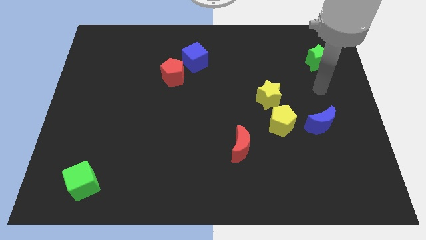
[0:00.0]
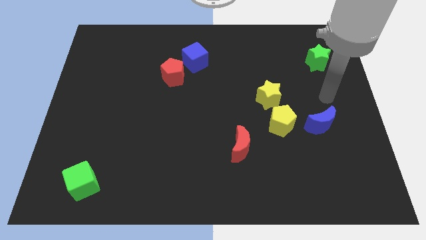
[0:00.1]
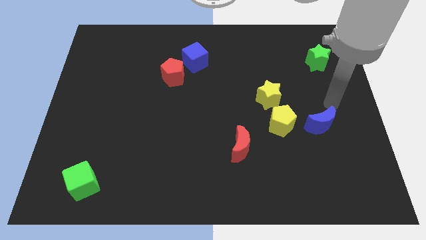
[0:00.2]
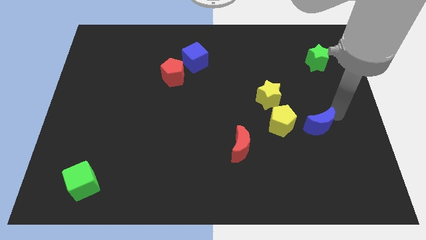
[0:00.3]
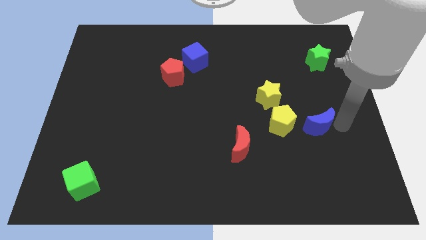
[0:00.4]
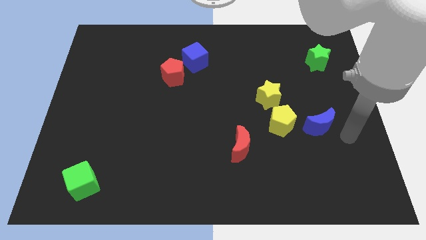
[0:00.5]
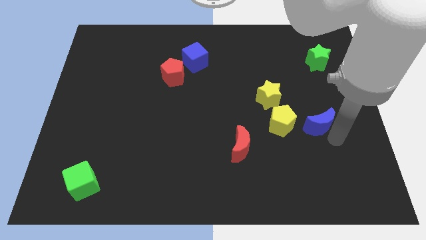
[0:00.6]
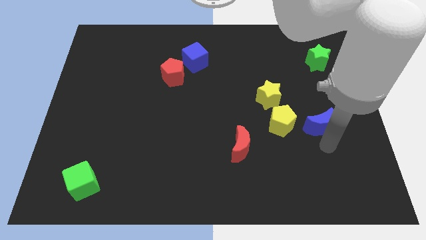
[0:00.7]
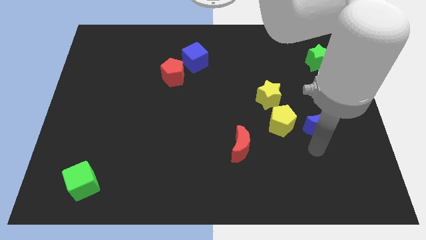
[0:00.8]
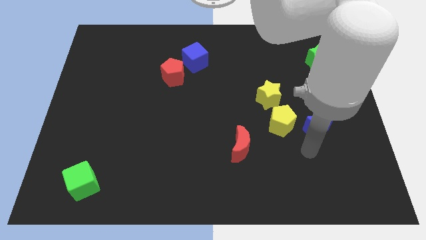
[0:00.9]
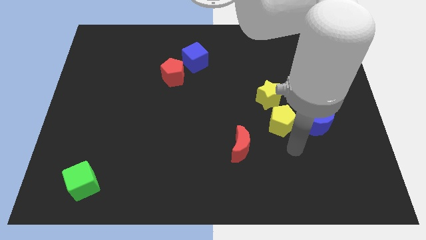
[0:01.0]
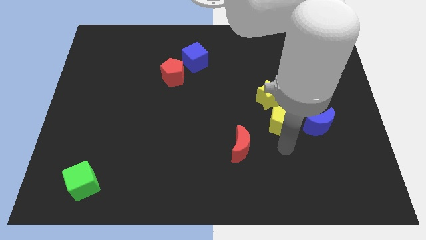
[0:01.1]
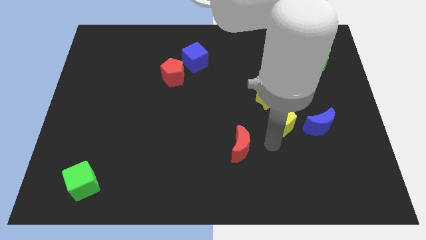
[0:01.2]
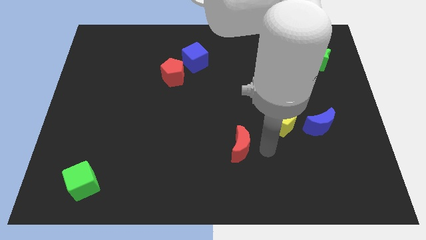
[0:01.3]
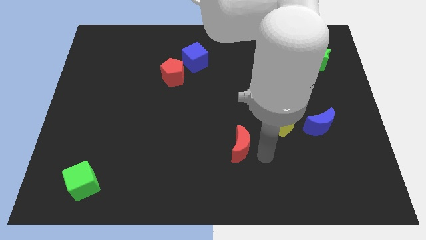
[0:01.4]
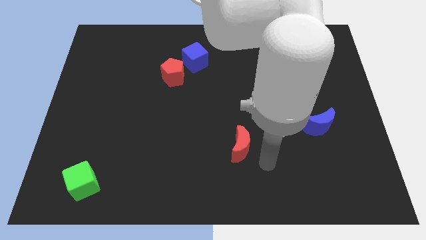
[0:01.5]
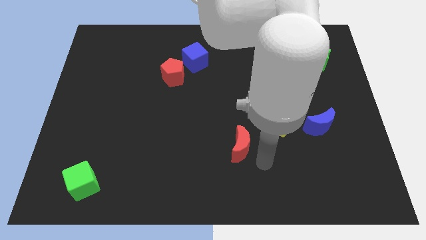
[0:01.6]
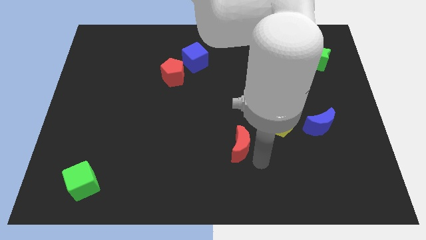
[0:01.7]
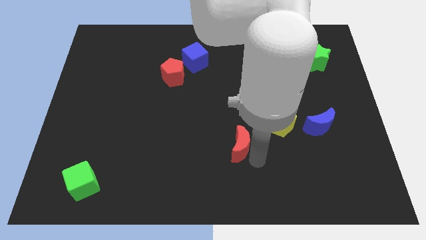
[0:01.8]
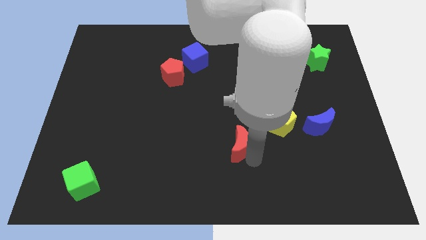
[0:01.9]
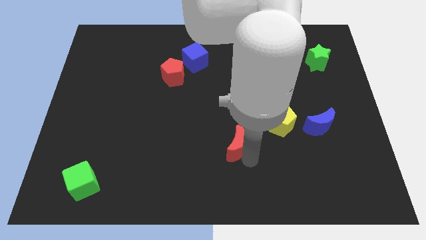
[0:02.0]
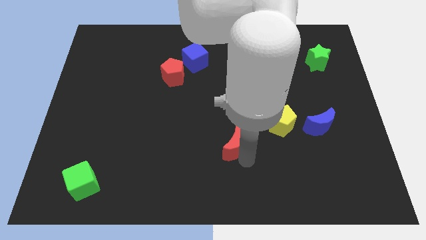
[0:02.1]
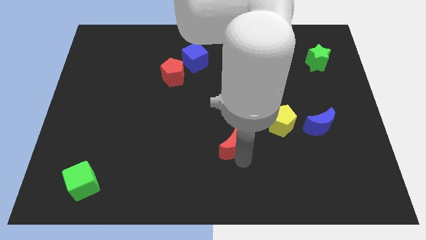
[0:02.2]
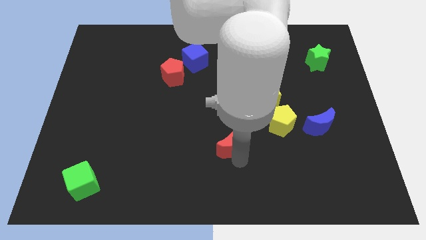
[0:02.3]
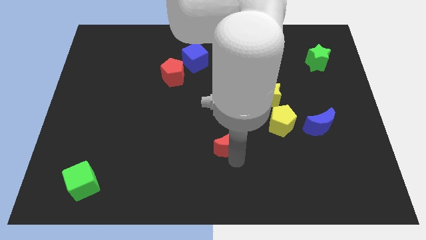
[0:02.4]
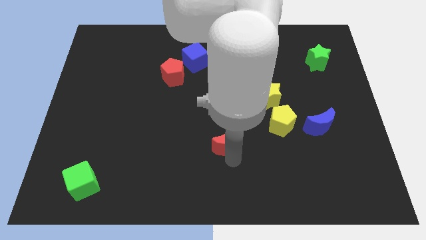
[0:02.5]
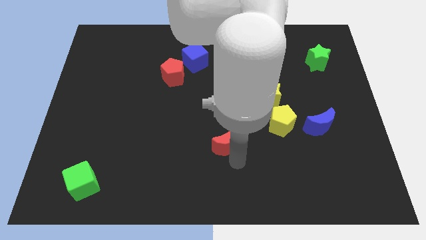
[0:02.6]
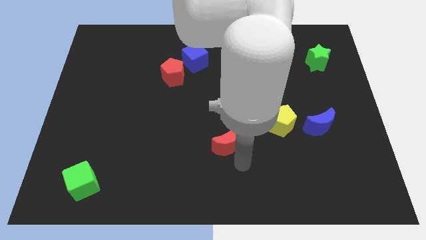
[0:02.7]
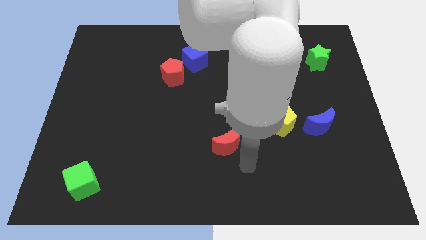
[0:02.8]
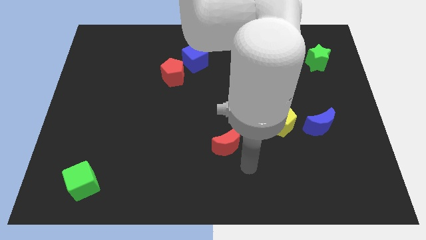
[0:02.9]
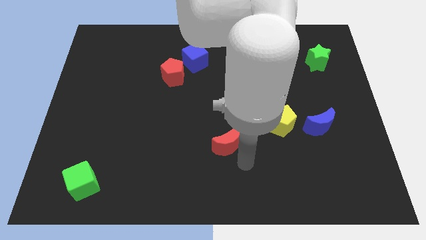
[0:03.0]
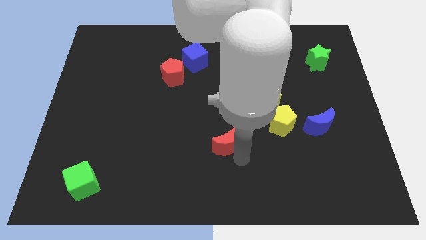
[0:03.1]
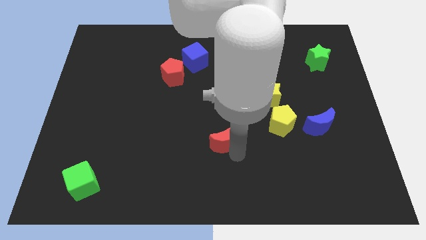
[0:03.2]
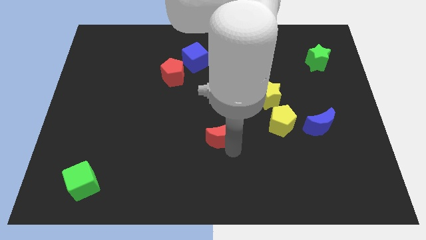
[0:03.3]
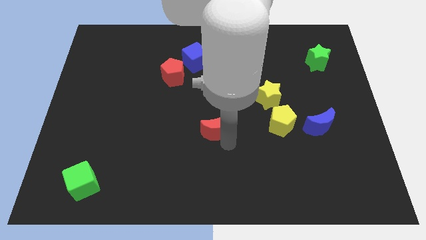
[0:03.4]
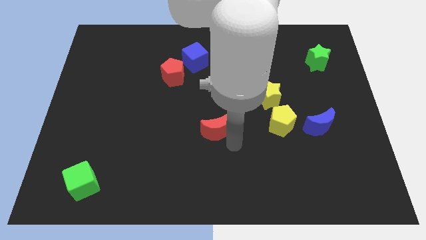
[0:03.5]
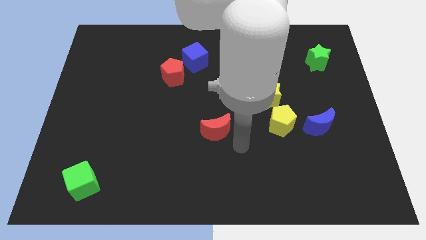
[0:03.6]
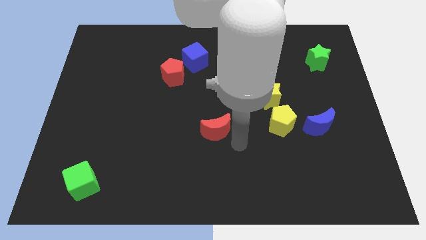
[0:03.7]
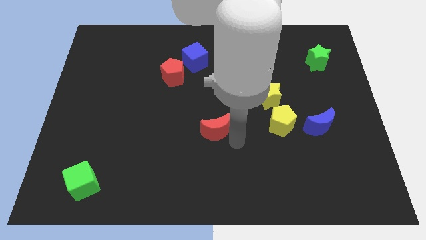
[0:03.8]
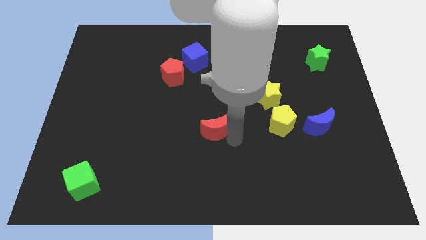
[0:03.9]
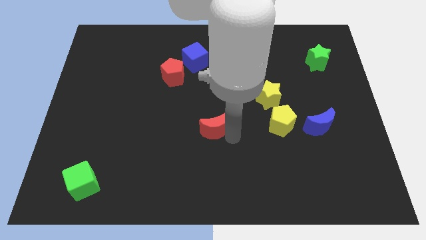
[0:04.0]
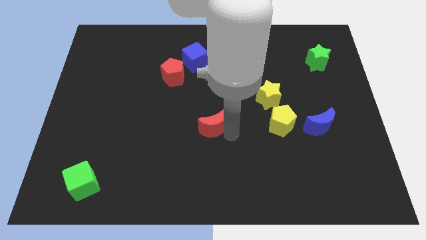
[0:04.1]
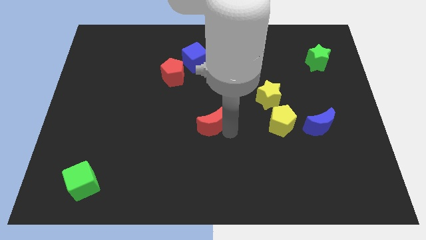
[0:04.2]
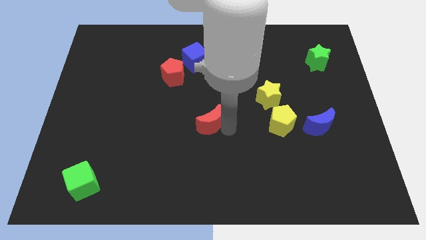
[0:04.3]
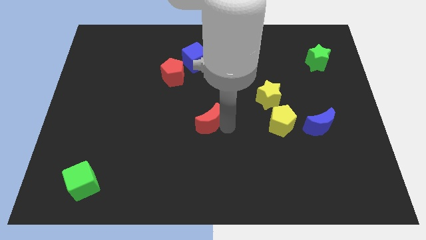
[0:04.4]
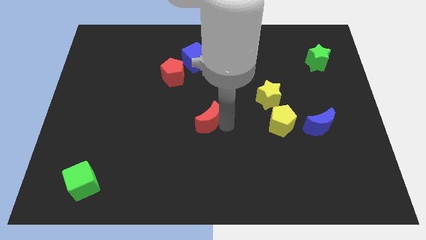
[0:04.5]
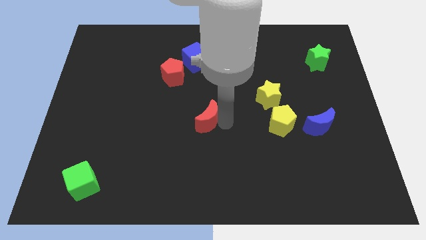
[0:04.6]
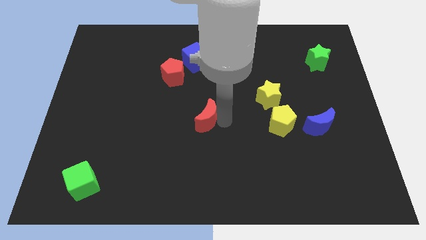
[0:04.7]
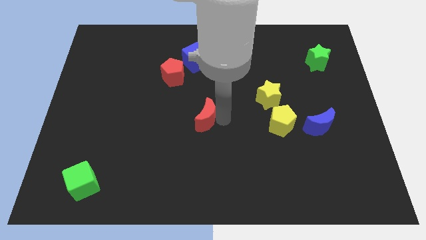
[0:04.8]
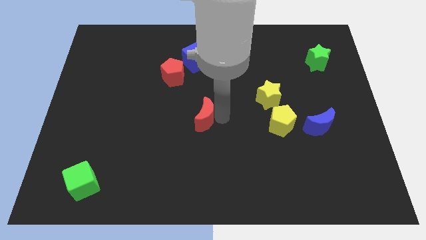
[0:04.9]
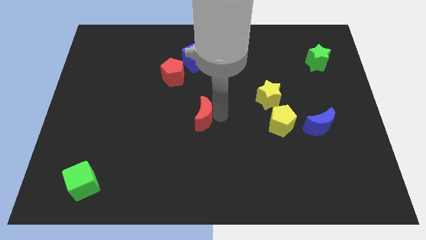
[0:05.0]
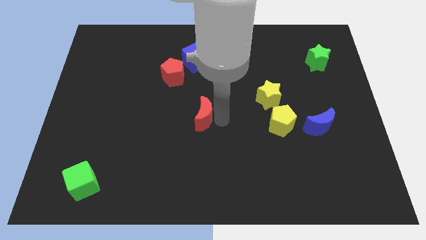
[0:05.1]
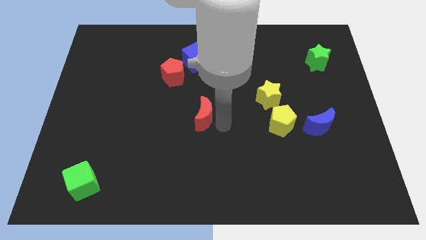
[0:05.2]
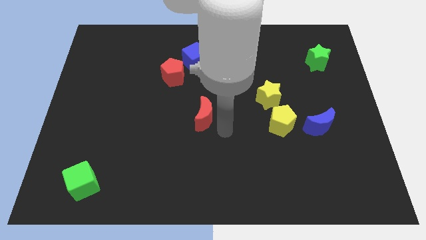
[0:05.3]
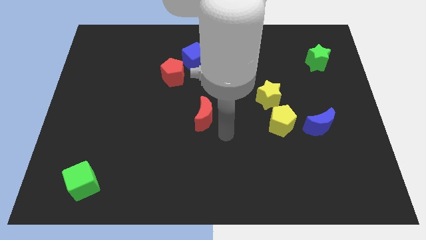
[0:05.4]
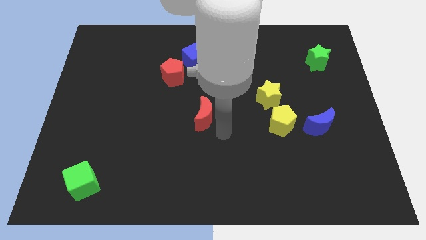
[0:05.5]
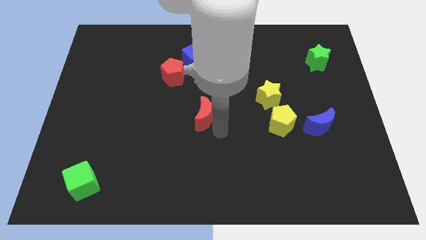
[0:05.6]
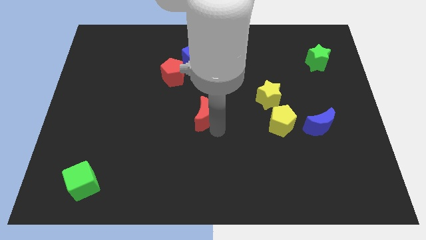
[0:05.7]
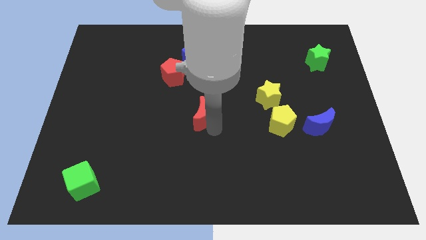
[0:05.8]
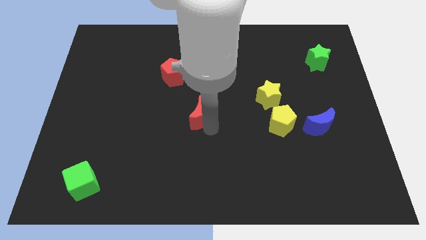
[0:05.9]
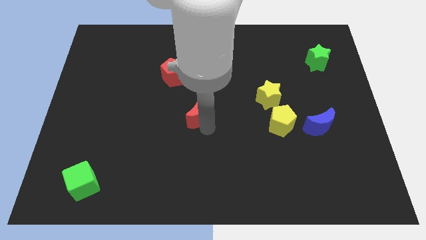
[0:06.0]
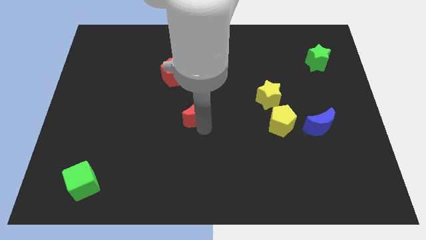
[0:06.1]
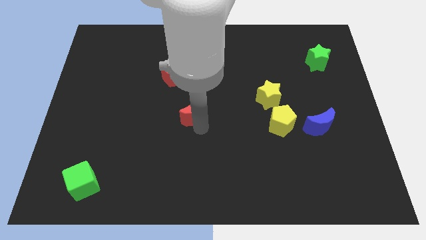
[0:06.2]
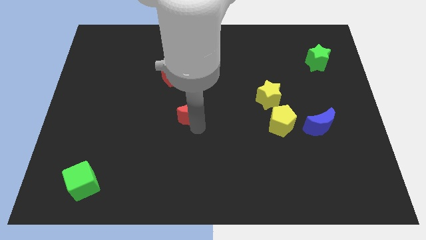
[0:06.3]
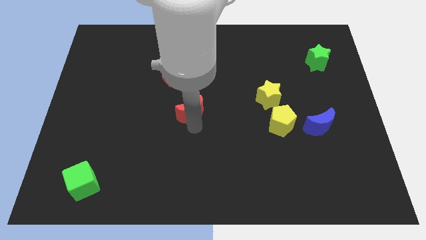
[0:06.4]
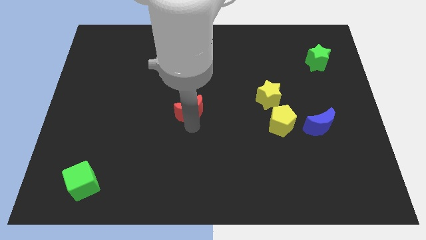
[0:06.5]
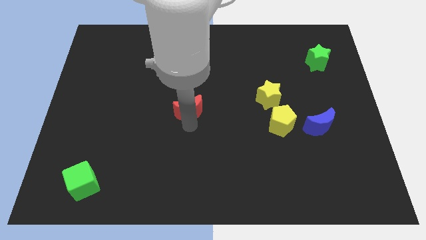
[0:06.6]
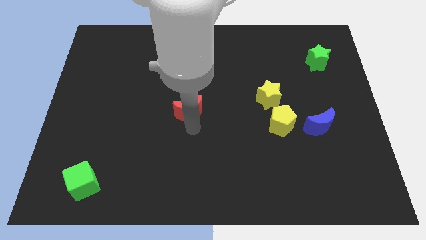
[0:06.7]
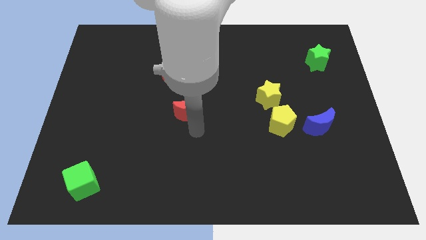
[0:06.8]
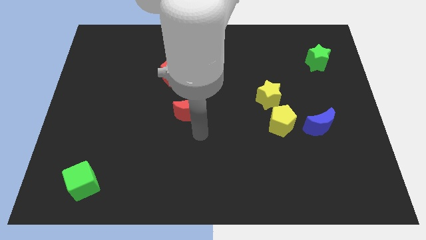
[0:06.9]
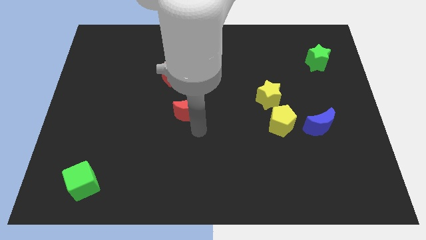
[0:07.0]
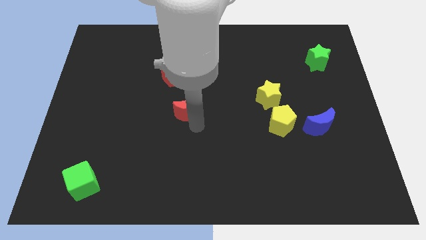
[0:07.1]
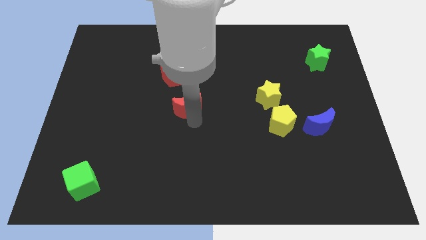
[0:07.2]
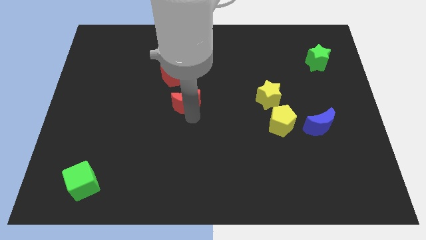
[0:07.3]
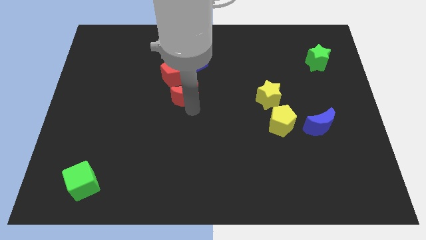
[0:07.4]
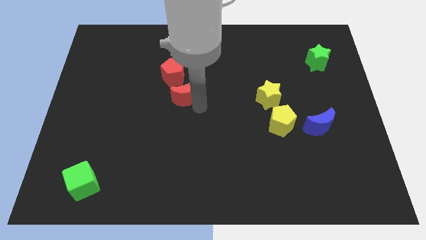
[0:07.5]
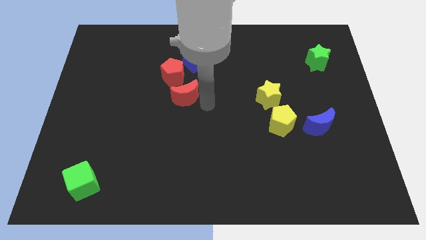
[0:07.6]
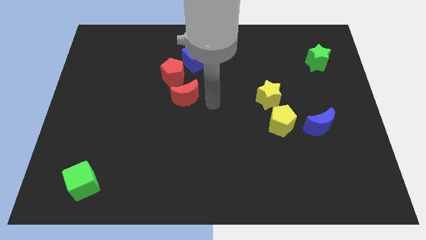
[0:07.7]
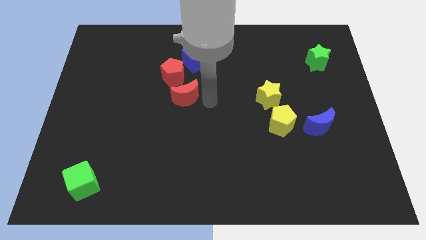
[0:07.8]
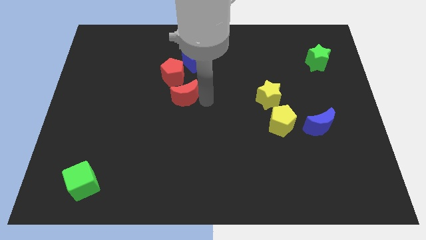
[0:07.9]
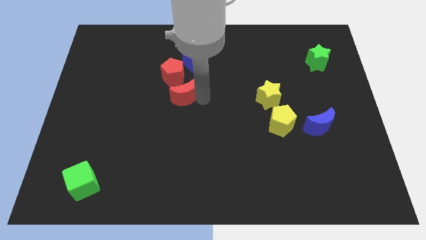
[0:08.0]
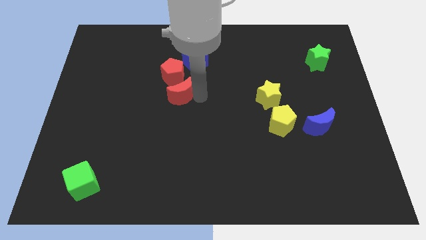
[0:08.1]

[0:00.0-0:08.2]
slide the red moon diagonally up and left

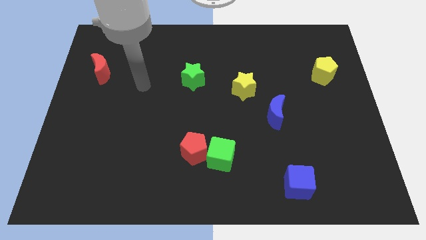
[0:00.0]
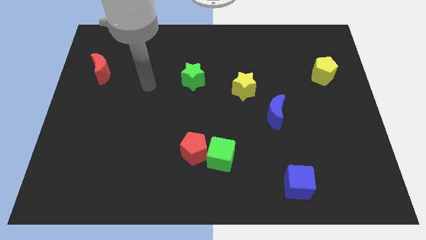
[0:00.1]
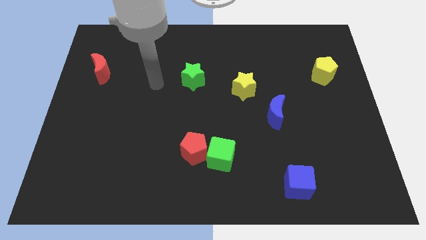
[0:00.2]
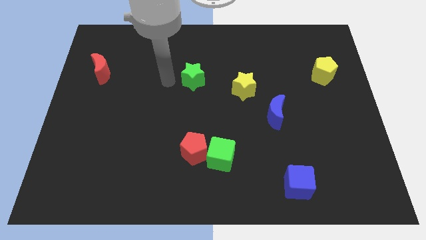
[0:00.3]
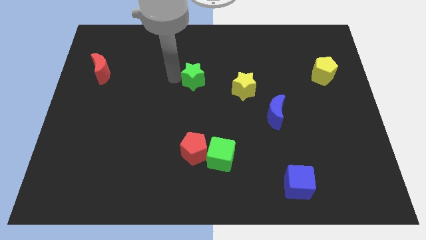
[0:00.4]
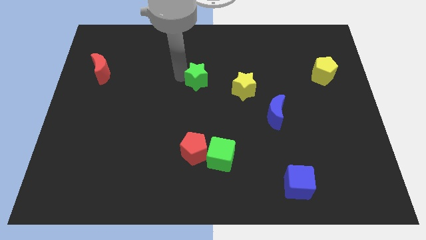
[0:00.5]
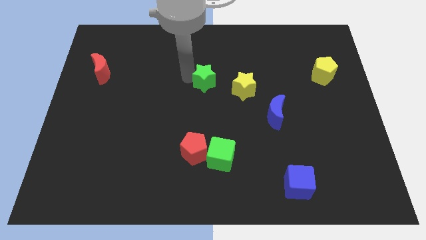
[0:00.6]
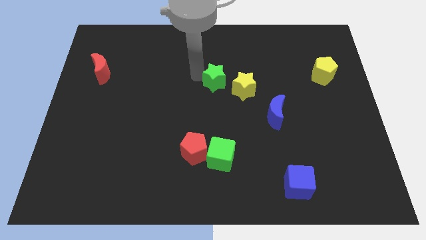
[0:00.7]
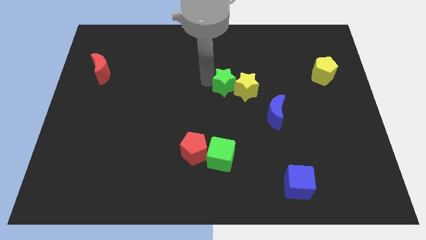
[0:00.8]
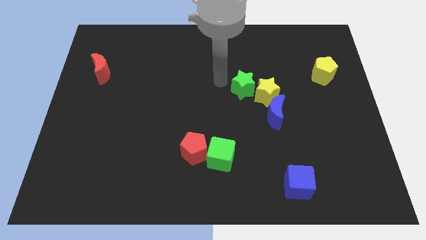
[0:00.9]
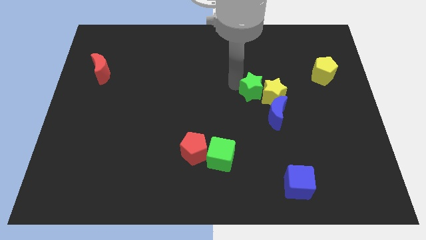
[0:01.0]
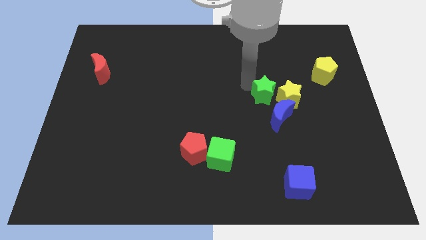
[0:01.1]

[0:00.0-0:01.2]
push the yellow star down and to the right diagonally a bit
